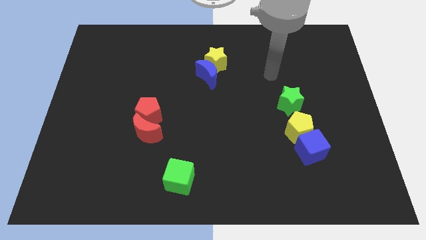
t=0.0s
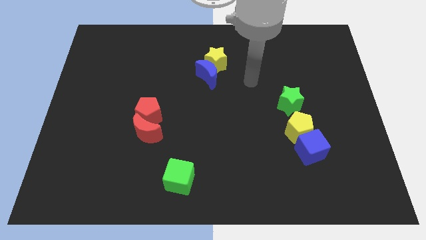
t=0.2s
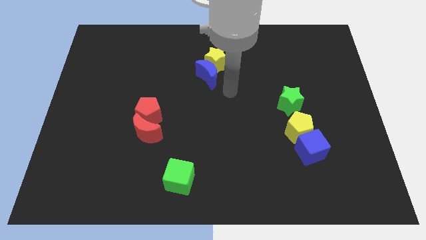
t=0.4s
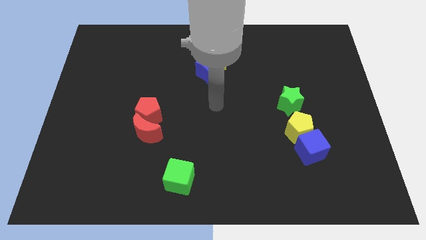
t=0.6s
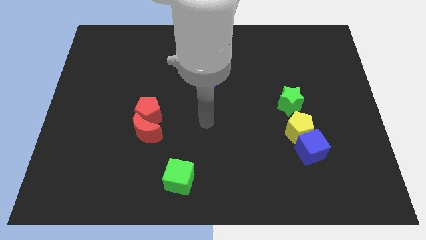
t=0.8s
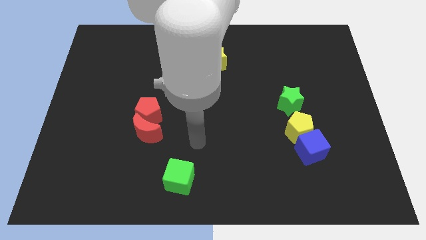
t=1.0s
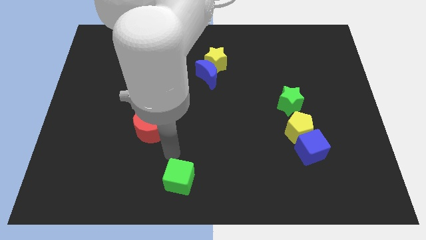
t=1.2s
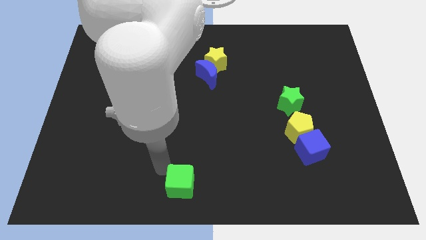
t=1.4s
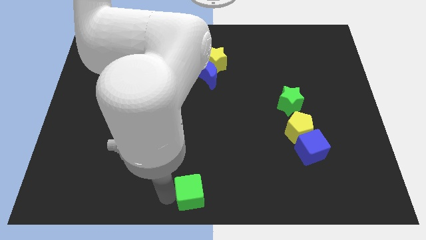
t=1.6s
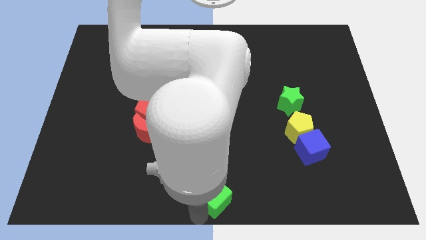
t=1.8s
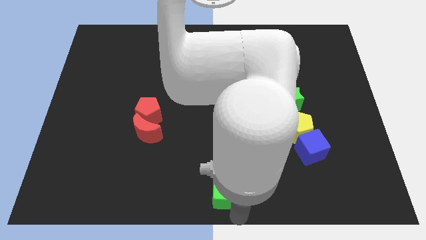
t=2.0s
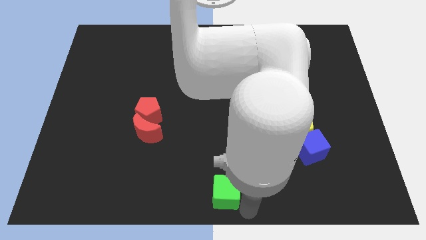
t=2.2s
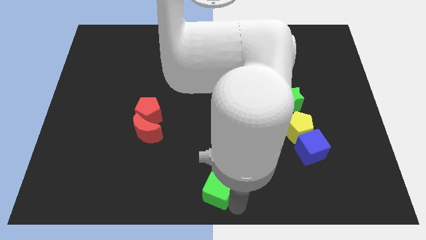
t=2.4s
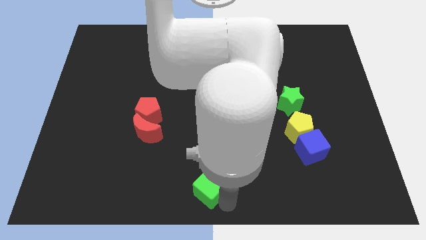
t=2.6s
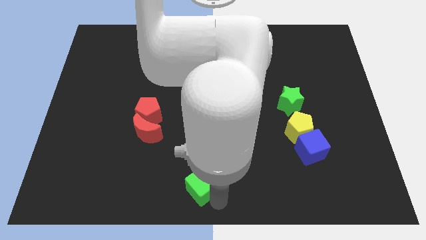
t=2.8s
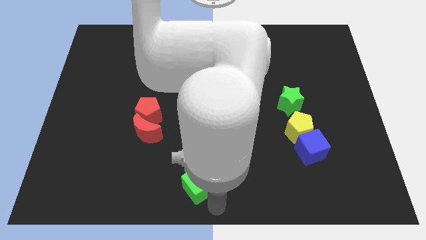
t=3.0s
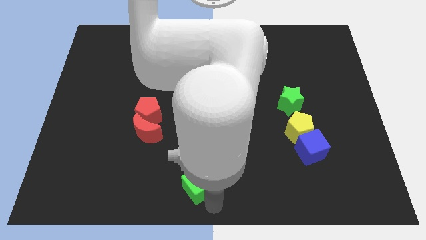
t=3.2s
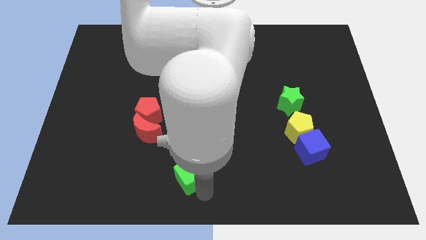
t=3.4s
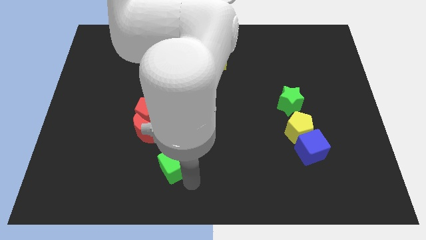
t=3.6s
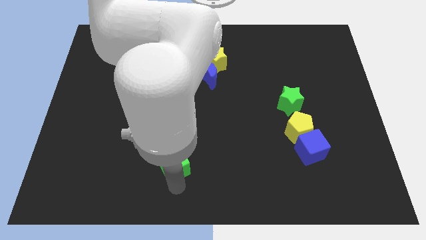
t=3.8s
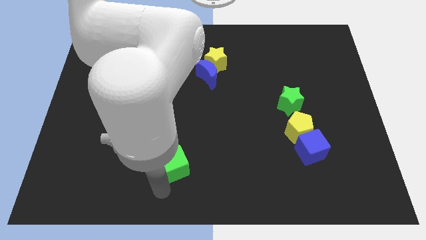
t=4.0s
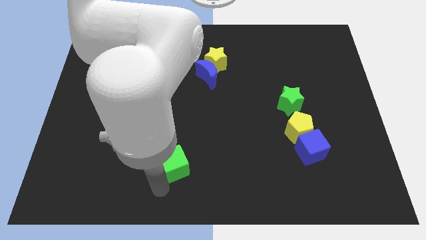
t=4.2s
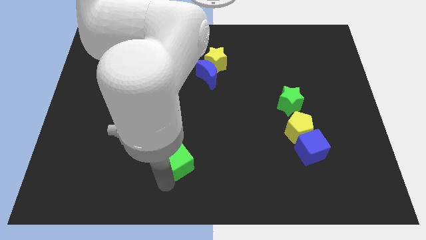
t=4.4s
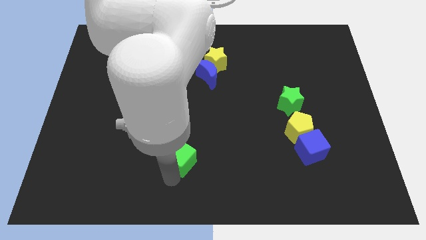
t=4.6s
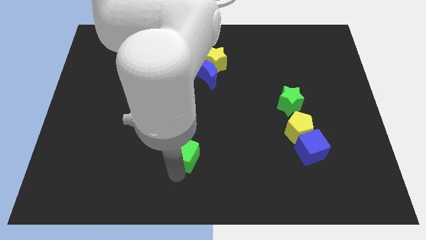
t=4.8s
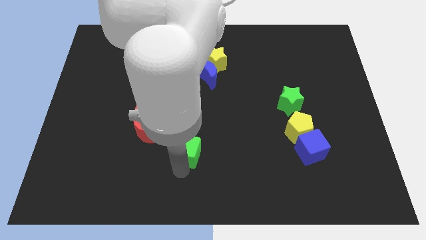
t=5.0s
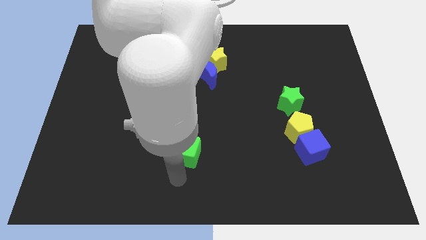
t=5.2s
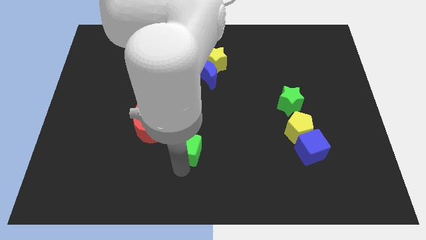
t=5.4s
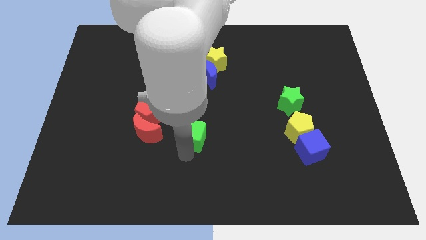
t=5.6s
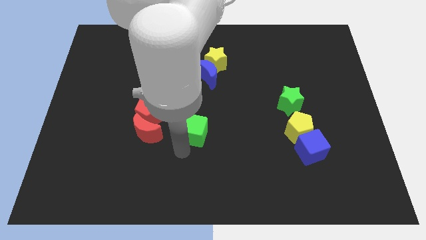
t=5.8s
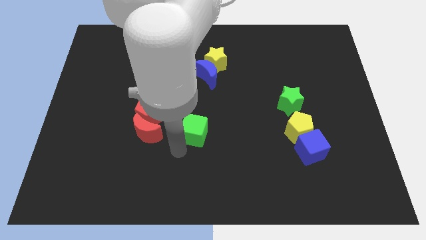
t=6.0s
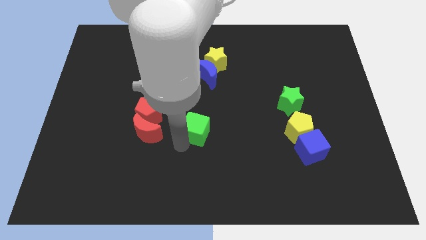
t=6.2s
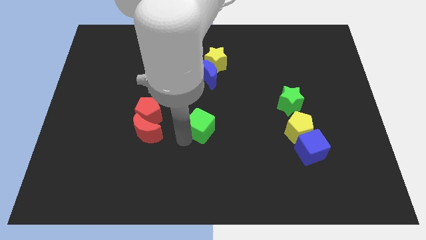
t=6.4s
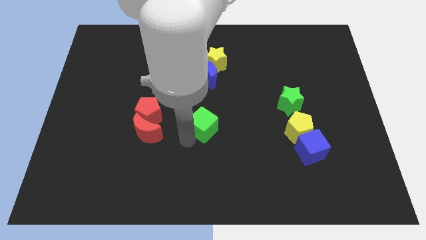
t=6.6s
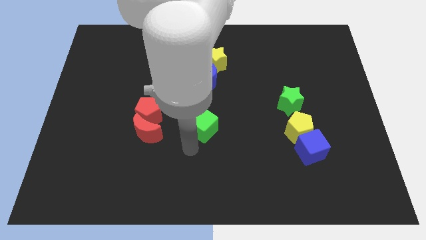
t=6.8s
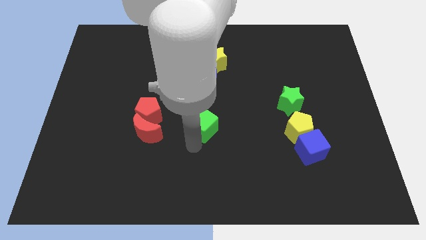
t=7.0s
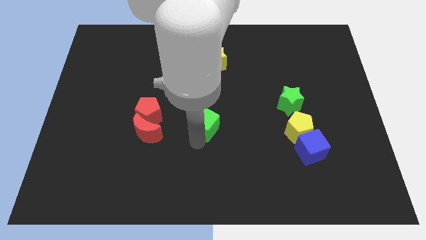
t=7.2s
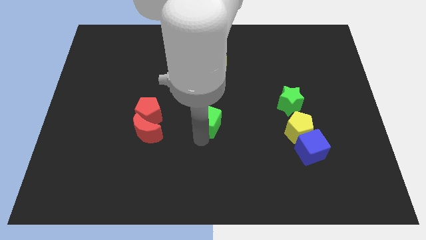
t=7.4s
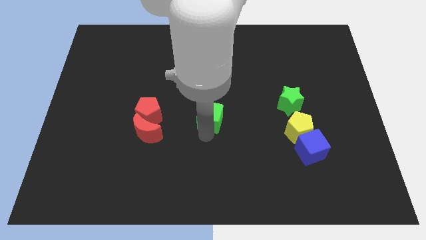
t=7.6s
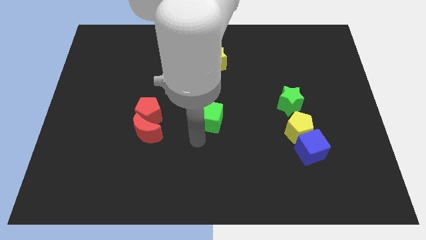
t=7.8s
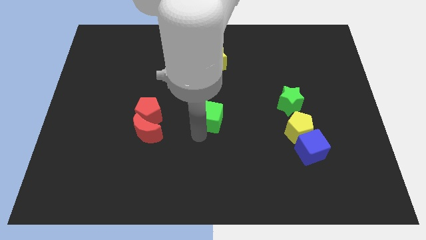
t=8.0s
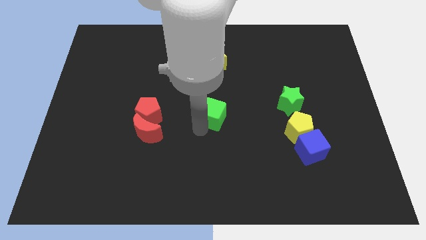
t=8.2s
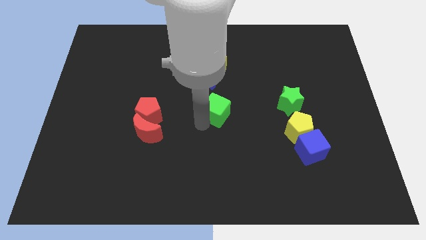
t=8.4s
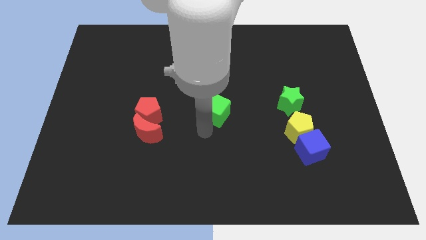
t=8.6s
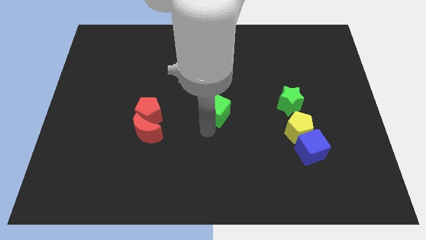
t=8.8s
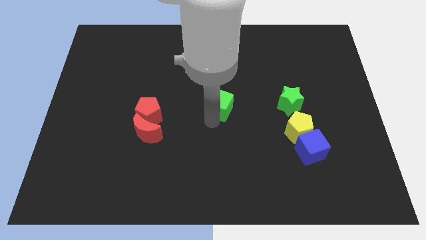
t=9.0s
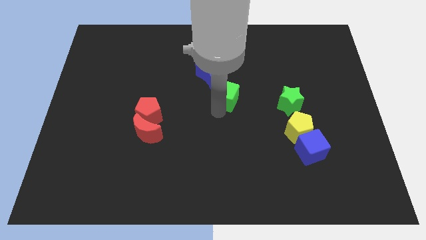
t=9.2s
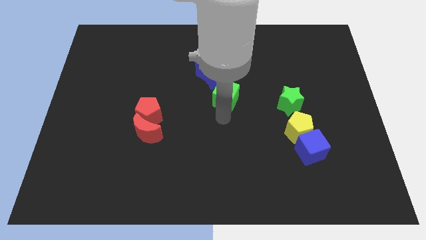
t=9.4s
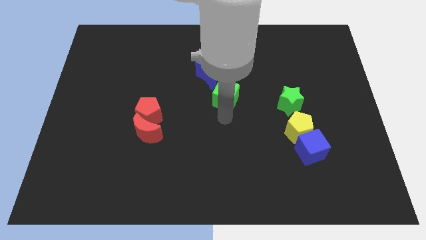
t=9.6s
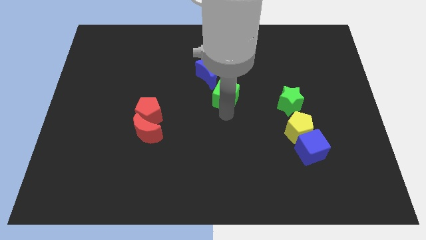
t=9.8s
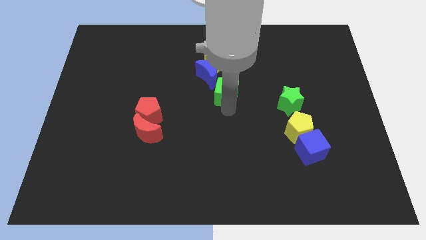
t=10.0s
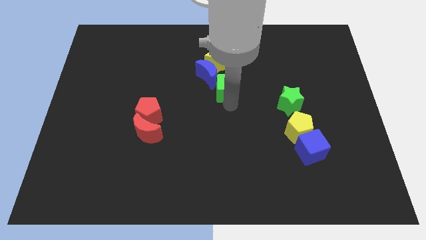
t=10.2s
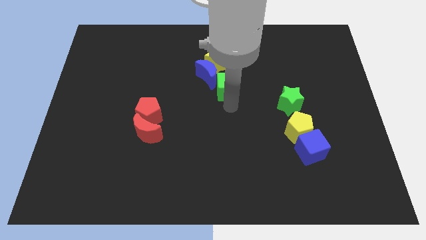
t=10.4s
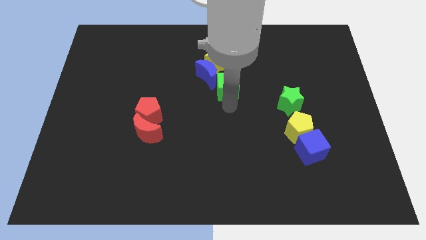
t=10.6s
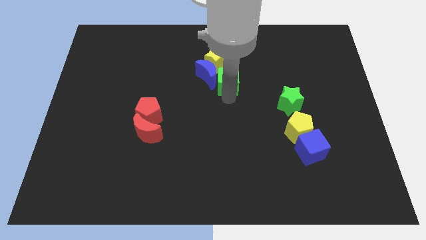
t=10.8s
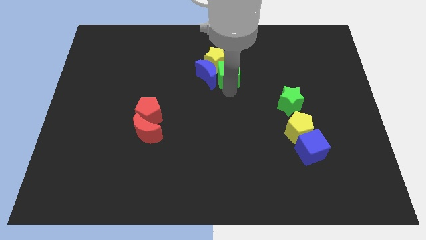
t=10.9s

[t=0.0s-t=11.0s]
move the green cube towards the yellow star

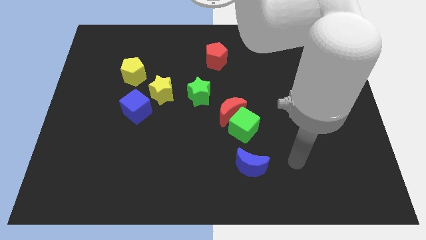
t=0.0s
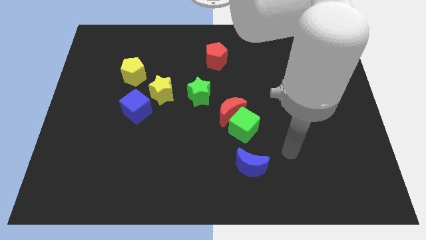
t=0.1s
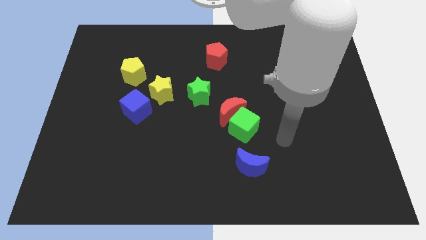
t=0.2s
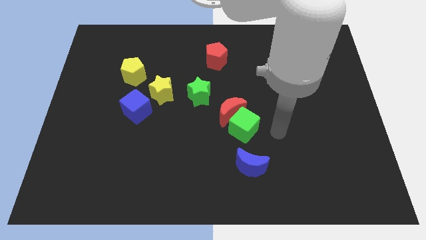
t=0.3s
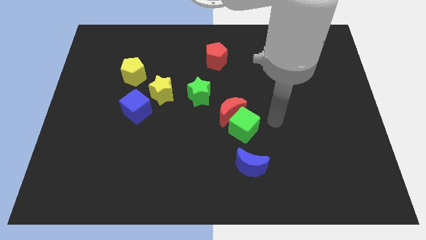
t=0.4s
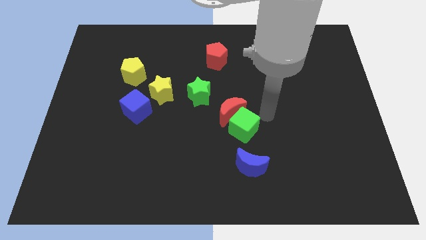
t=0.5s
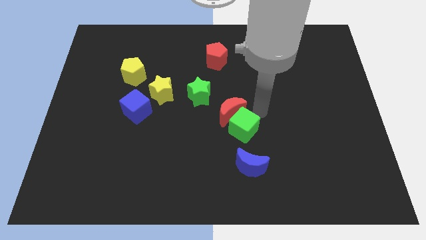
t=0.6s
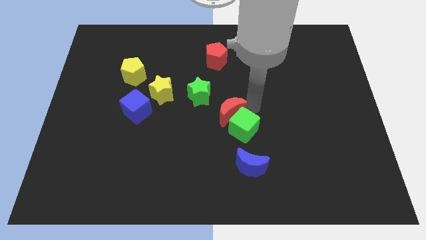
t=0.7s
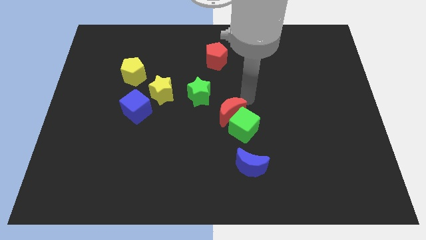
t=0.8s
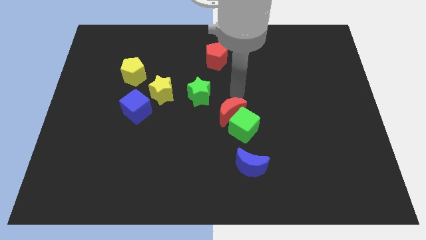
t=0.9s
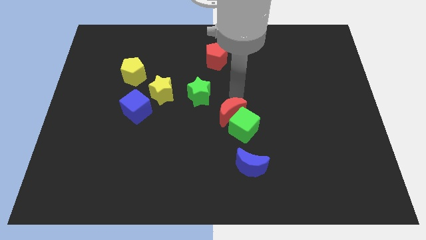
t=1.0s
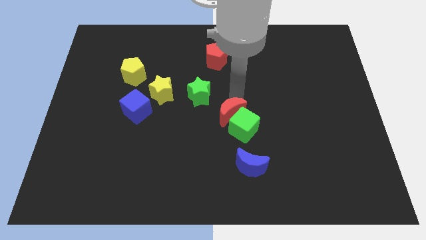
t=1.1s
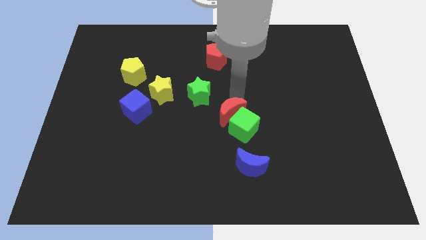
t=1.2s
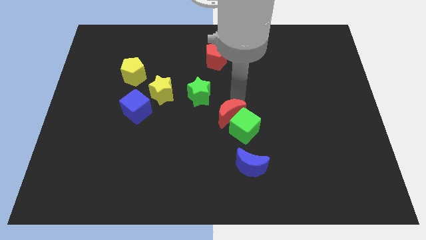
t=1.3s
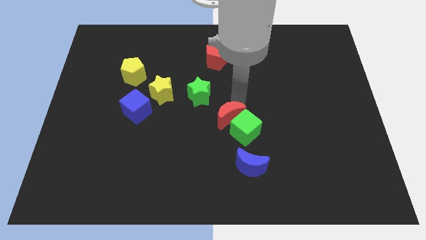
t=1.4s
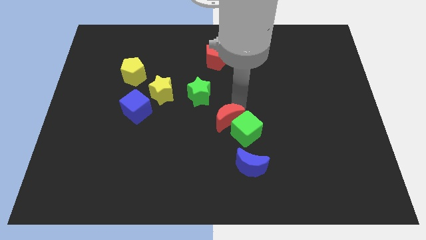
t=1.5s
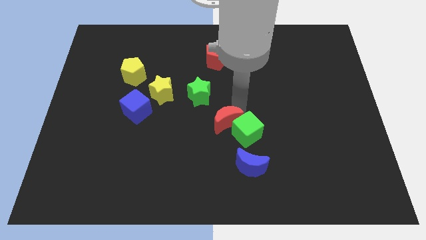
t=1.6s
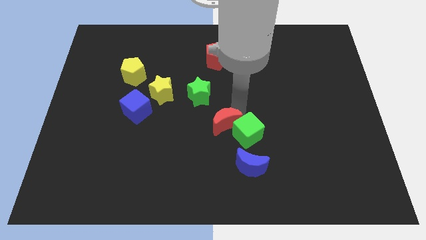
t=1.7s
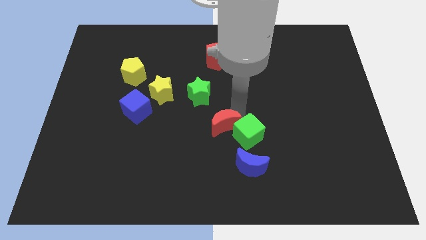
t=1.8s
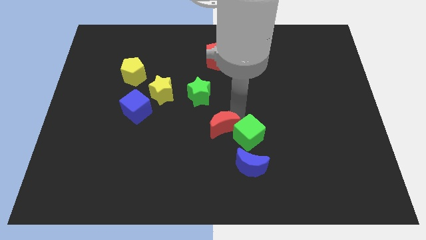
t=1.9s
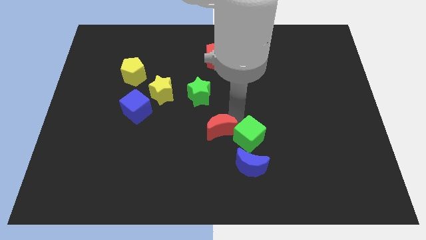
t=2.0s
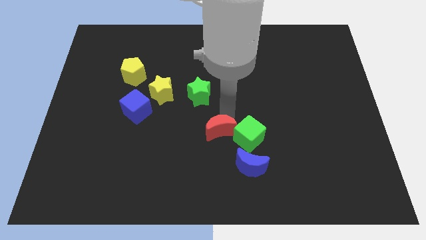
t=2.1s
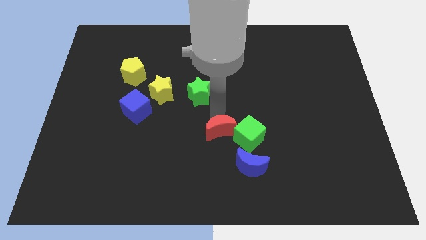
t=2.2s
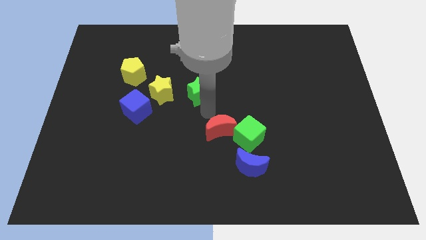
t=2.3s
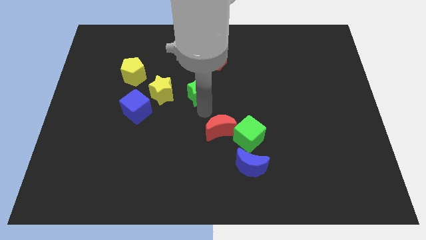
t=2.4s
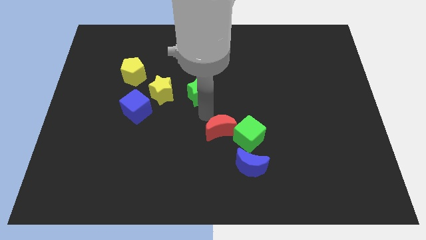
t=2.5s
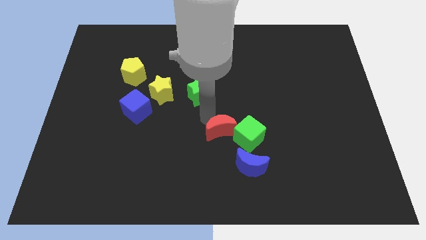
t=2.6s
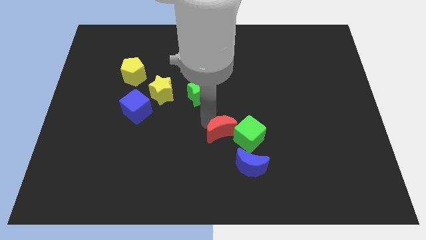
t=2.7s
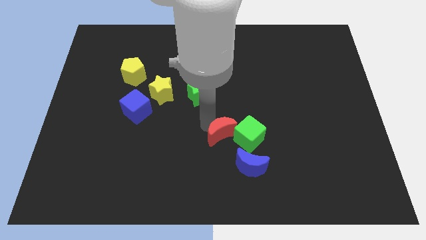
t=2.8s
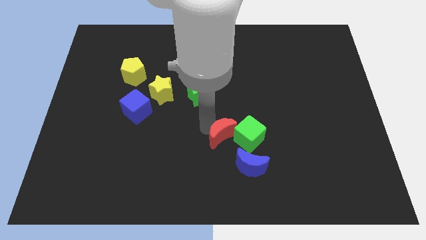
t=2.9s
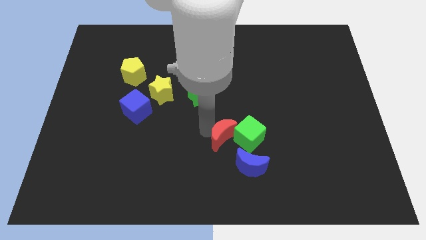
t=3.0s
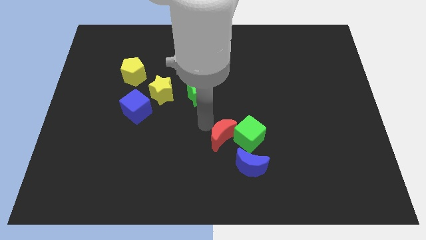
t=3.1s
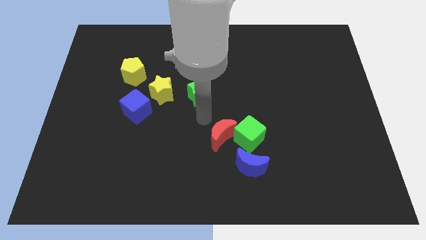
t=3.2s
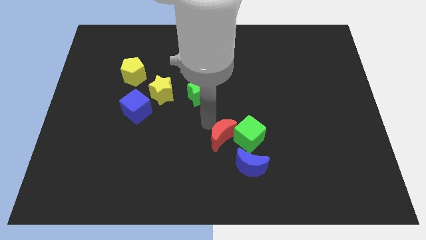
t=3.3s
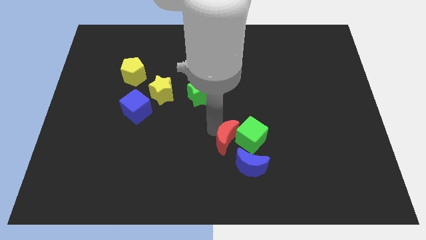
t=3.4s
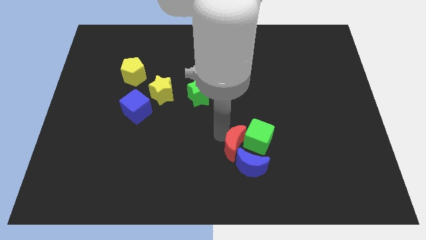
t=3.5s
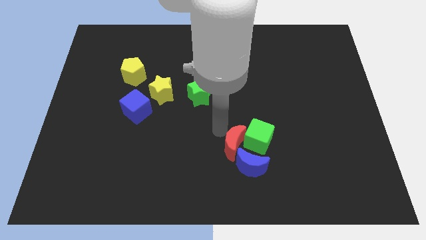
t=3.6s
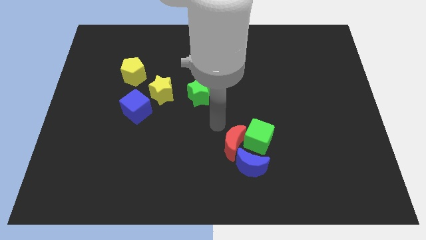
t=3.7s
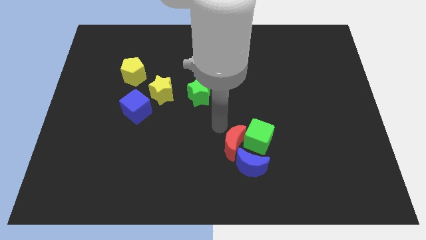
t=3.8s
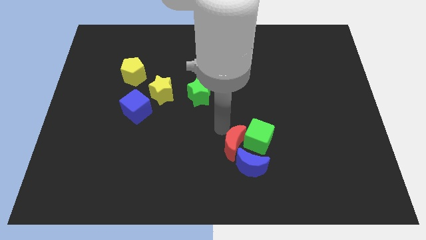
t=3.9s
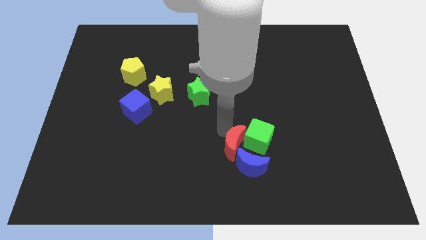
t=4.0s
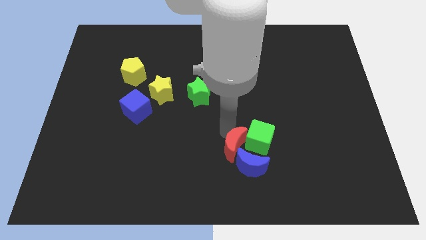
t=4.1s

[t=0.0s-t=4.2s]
put the red moon to the blue moon
